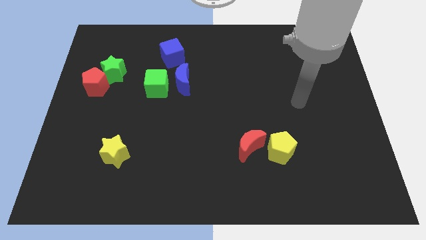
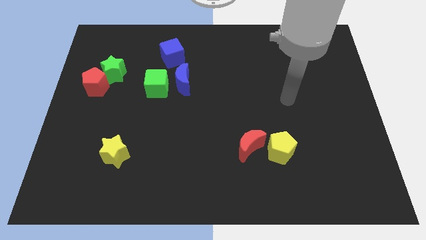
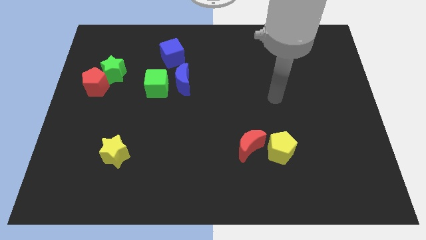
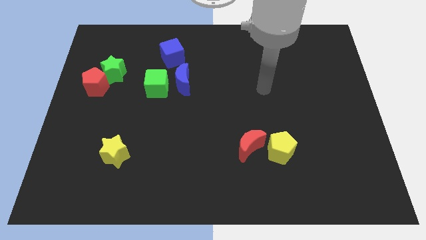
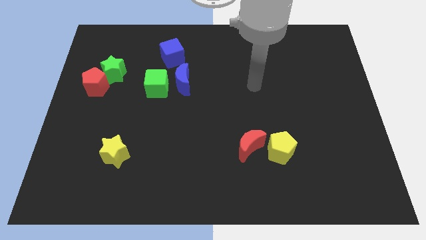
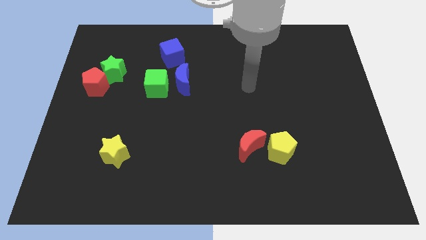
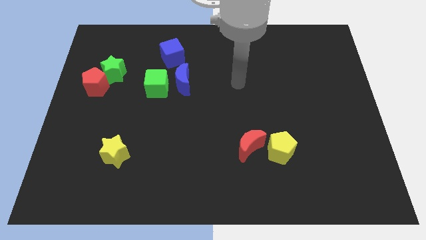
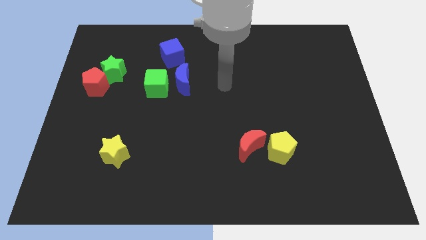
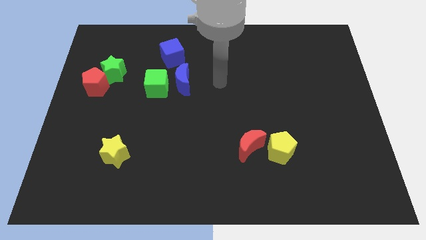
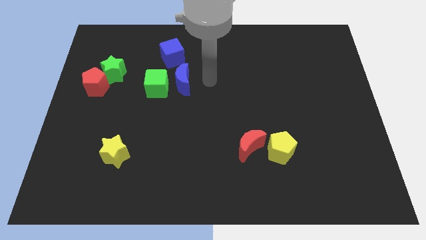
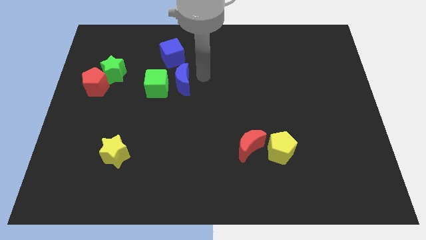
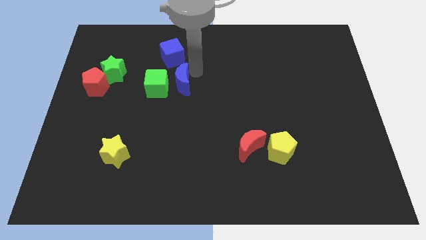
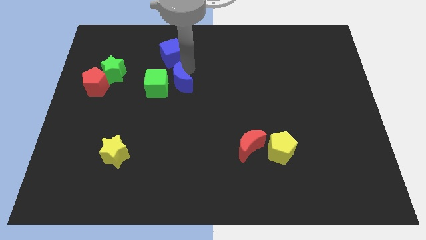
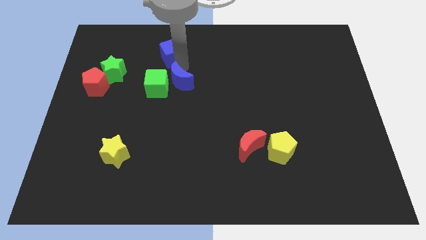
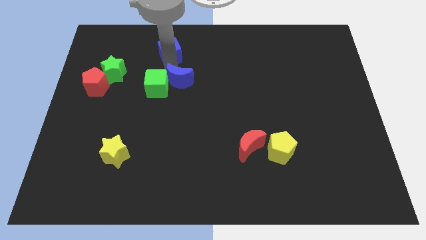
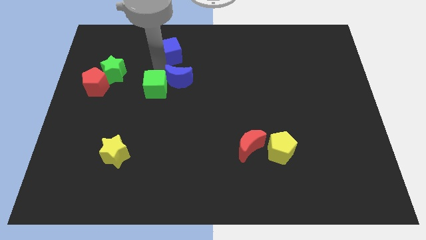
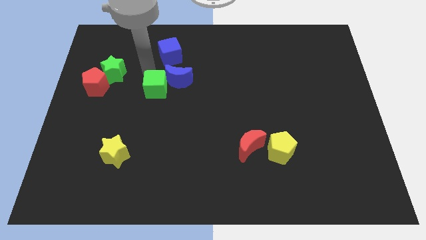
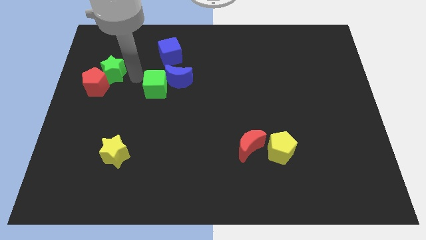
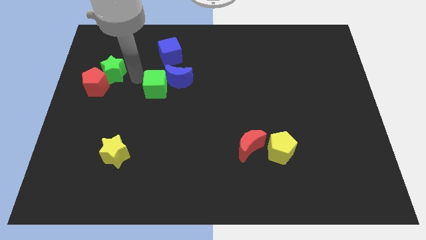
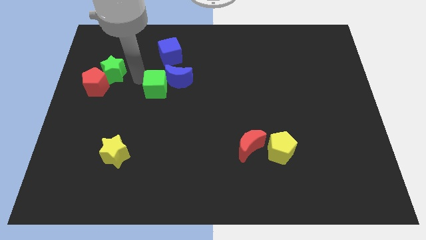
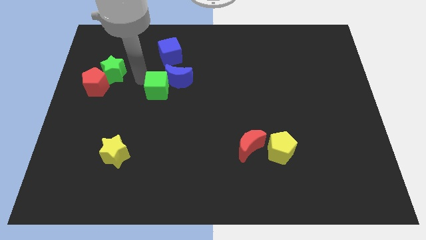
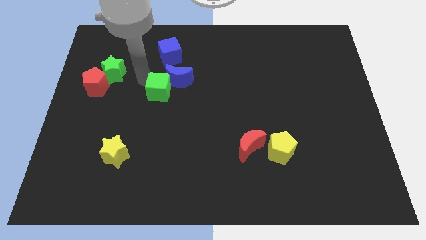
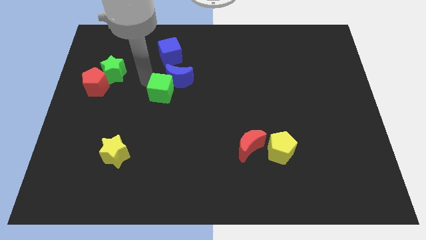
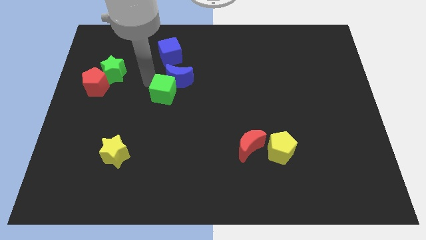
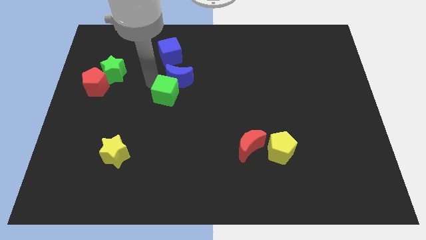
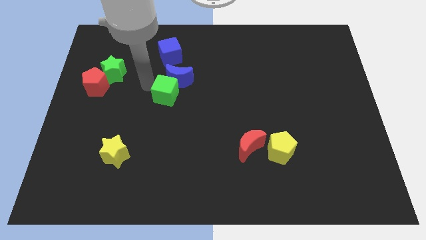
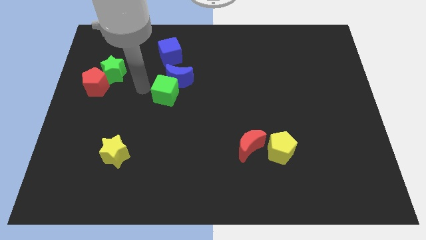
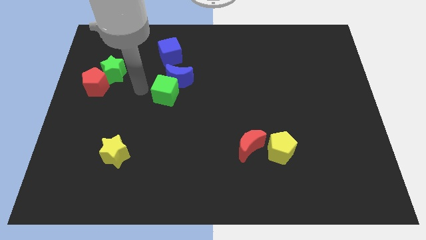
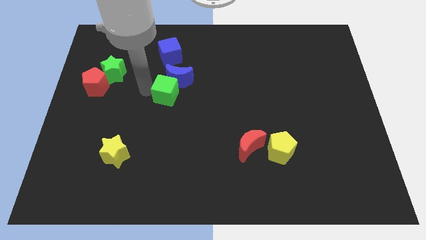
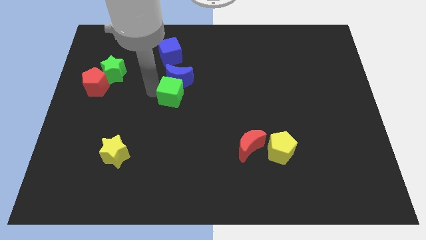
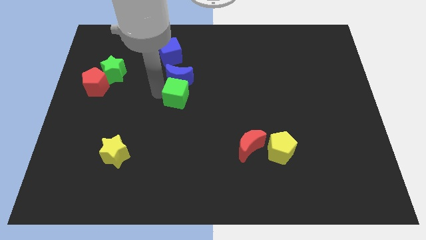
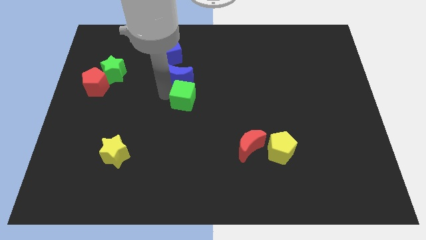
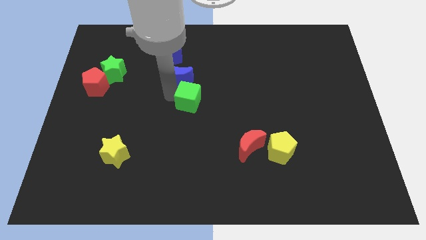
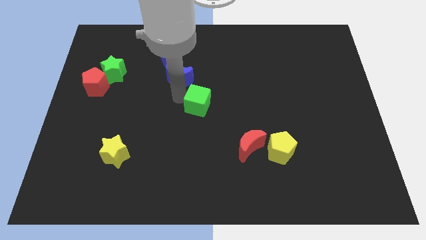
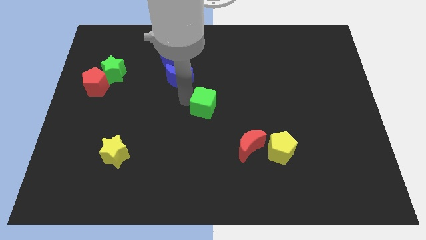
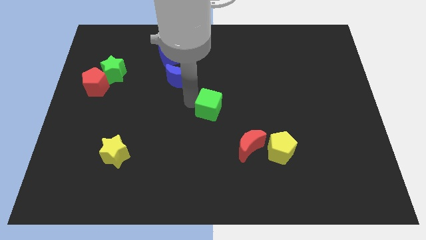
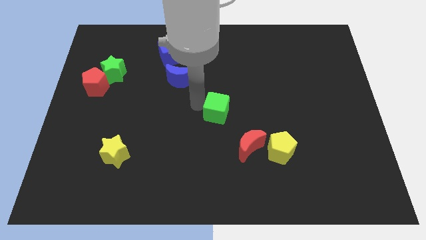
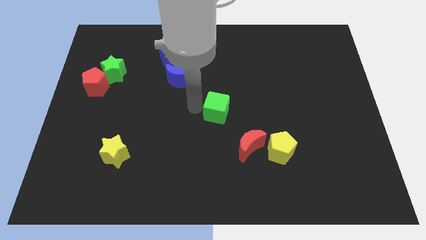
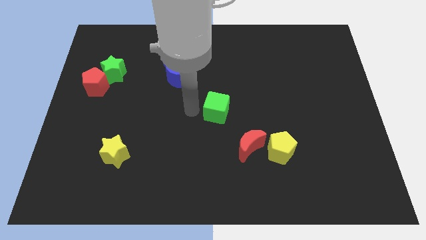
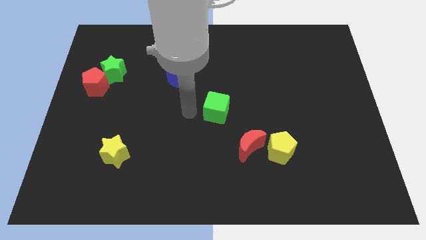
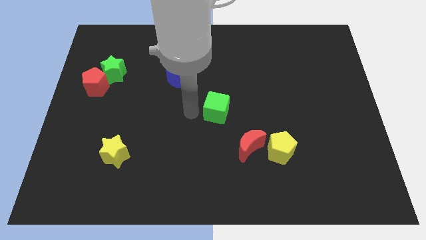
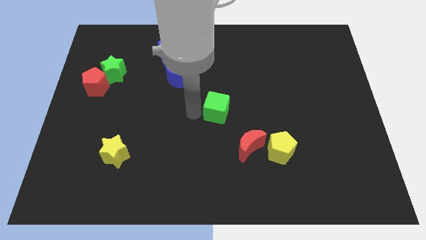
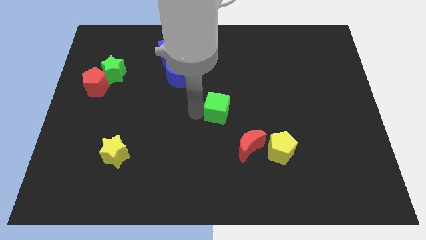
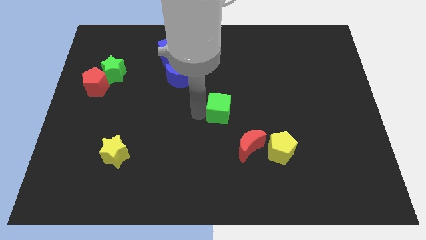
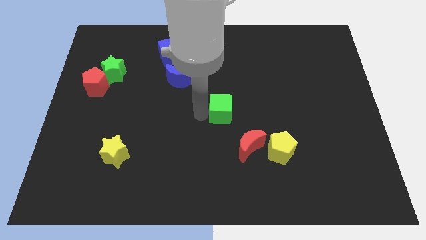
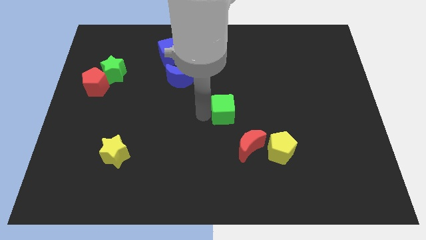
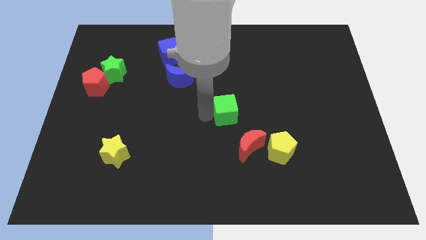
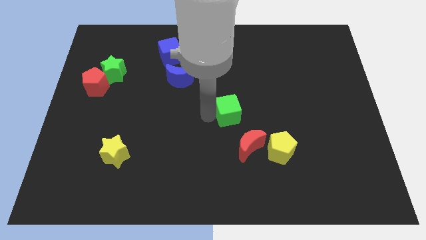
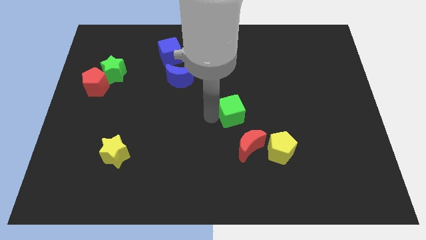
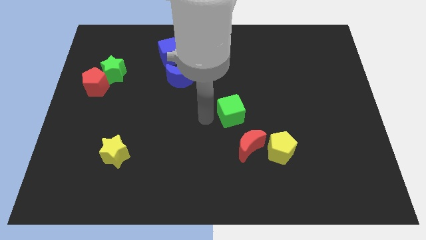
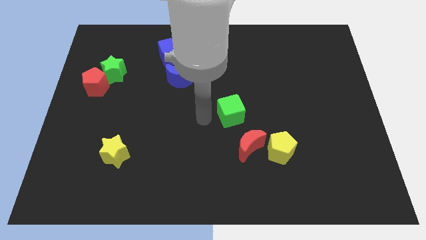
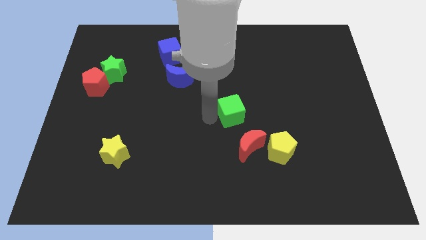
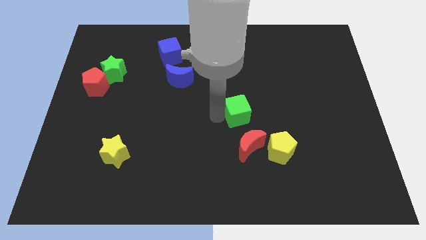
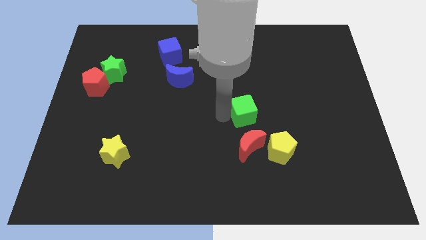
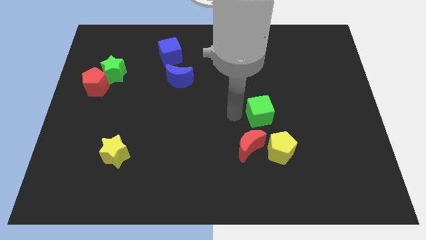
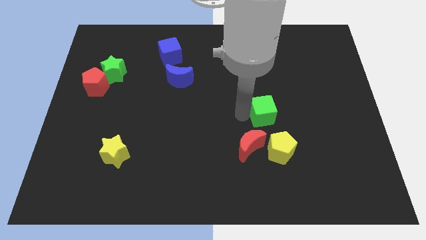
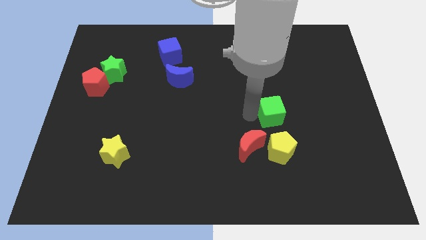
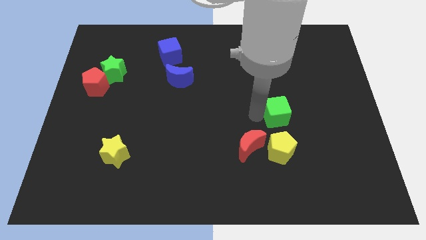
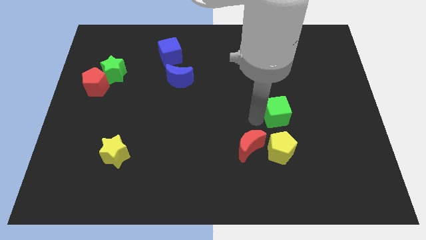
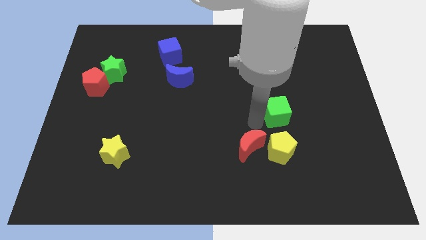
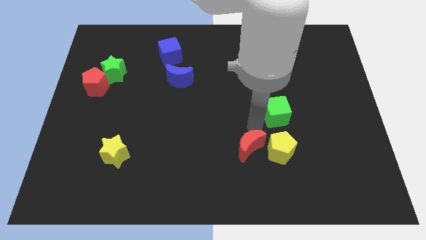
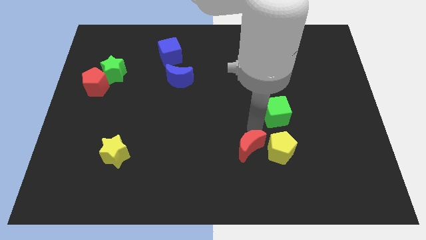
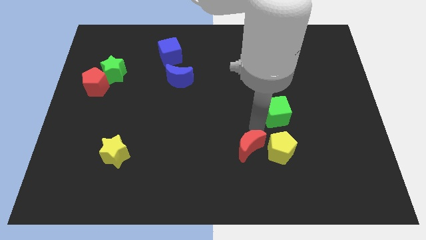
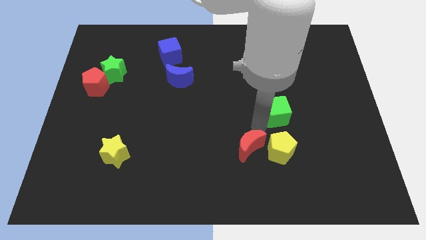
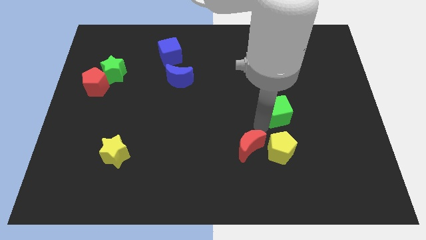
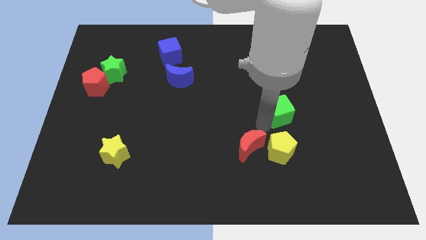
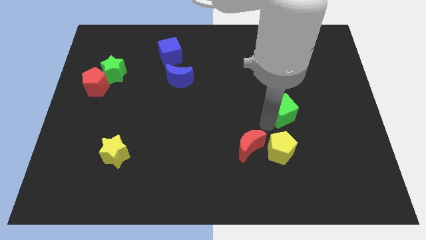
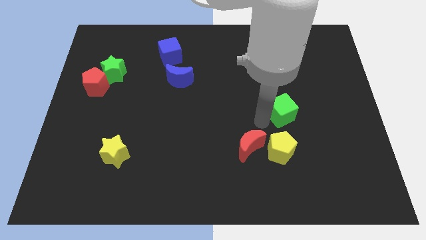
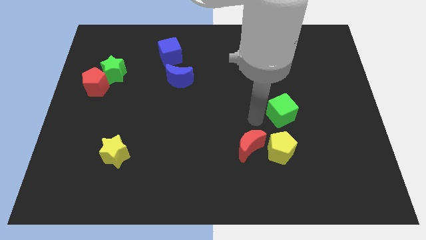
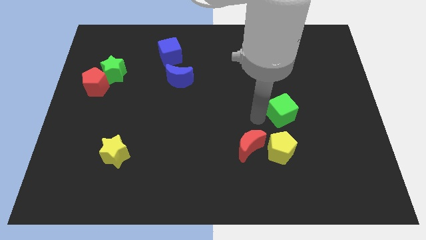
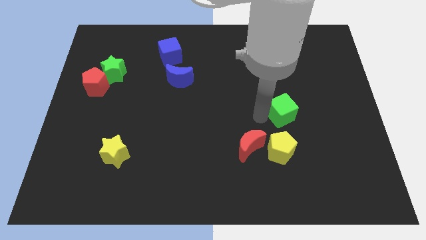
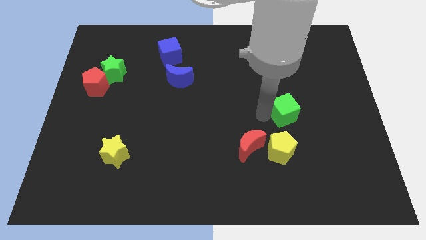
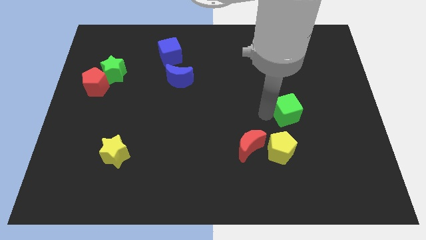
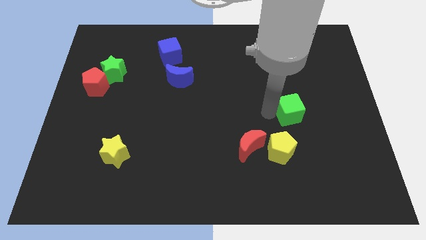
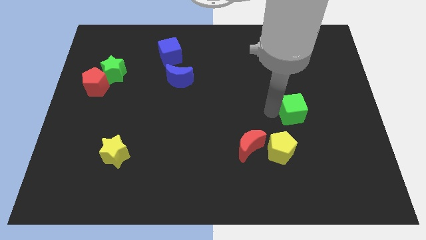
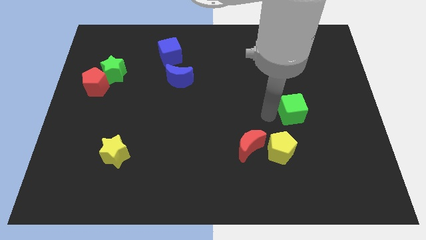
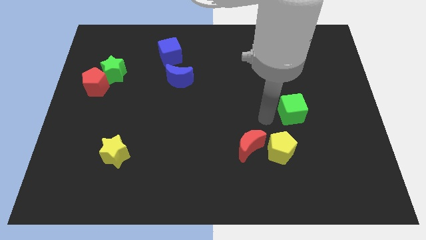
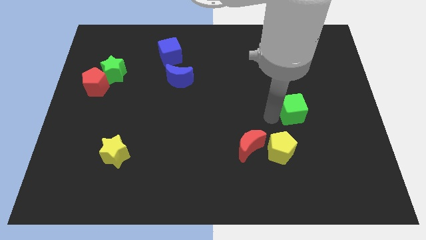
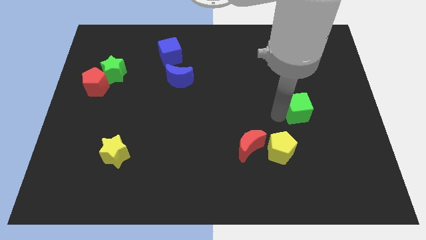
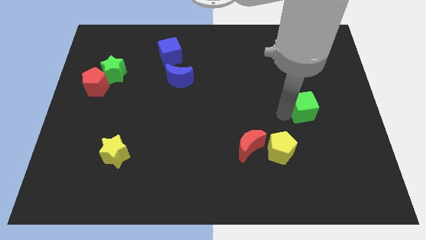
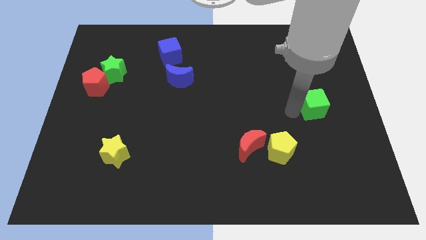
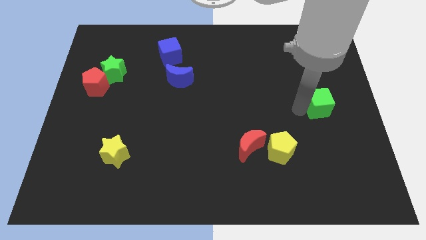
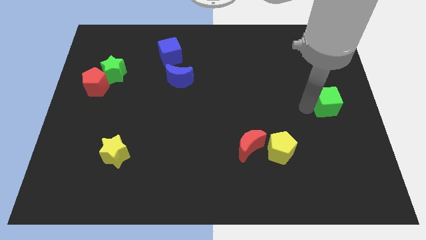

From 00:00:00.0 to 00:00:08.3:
slide the green cube to the right side
